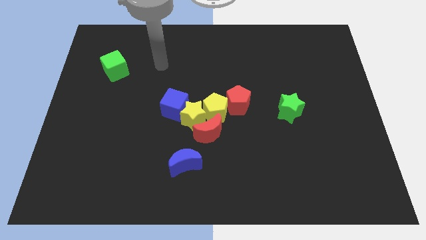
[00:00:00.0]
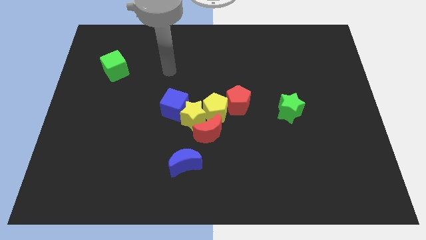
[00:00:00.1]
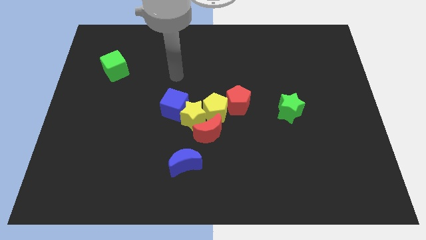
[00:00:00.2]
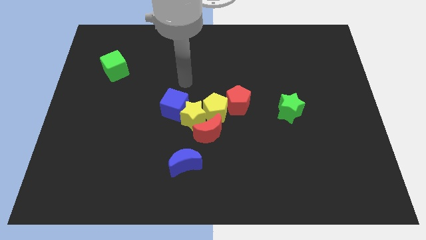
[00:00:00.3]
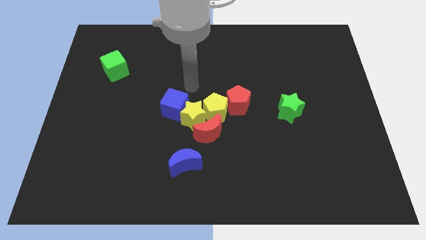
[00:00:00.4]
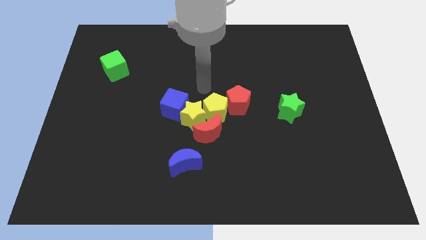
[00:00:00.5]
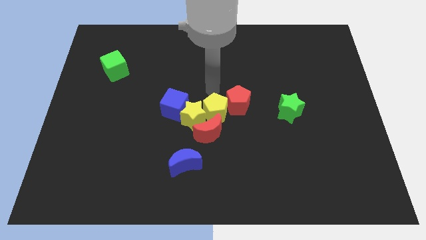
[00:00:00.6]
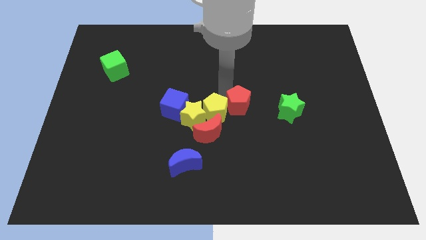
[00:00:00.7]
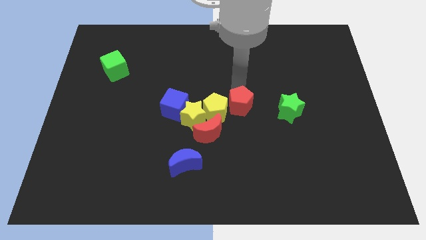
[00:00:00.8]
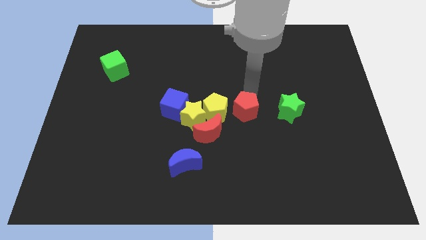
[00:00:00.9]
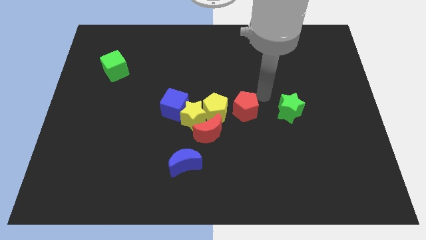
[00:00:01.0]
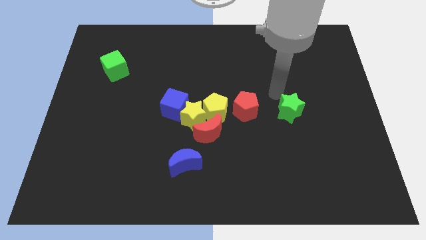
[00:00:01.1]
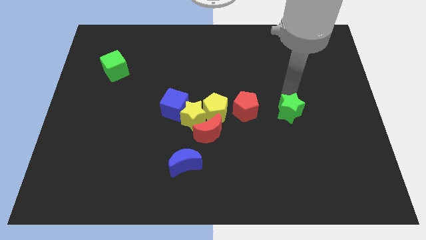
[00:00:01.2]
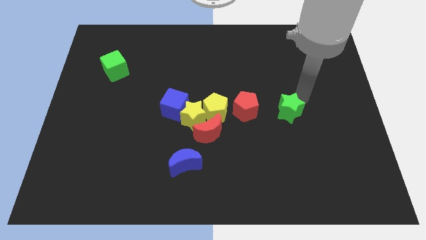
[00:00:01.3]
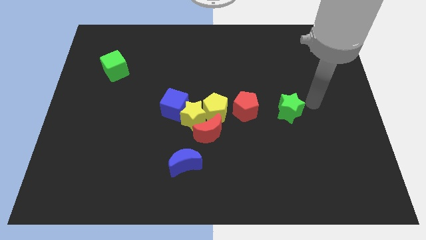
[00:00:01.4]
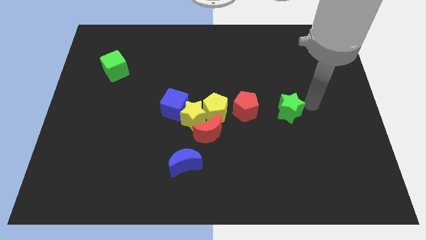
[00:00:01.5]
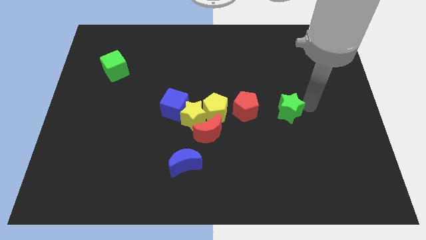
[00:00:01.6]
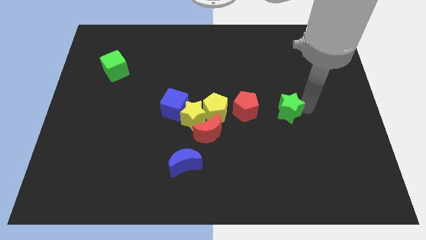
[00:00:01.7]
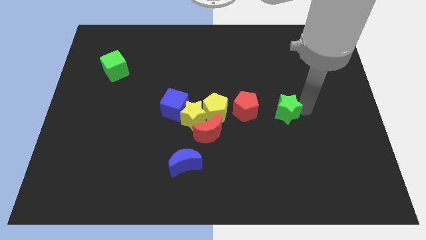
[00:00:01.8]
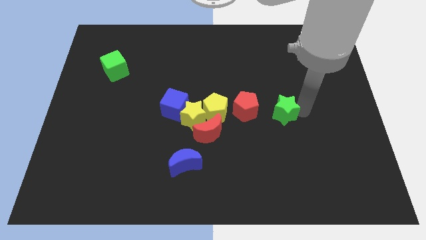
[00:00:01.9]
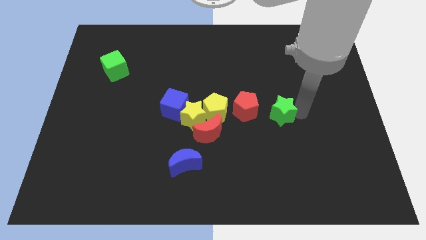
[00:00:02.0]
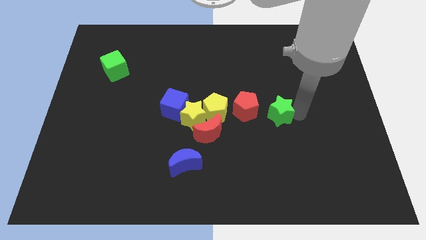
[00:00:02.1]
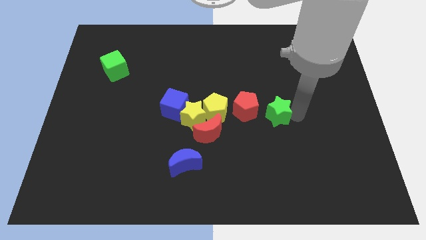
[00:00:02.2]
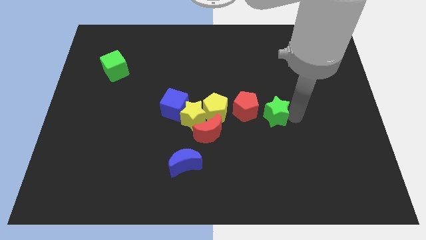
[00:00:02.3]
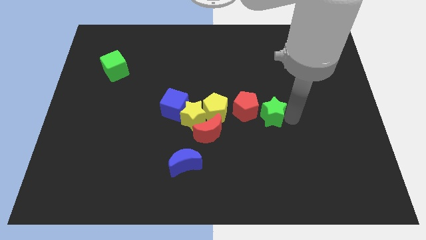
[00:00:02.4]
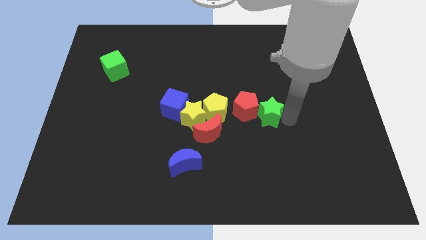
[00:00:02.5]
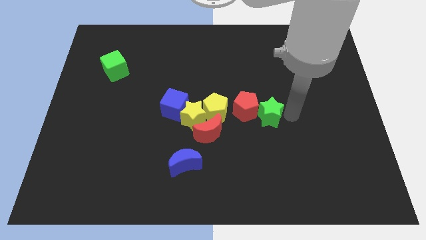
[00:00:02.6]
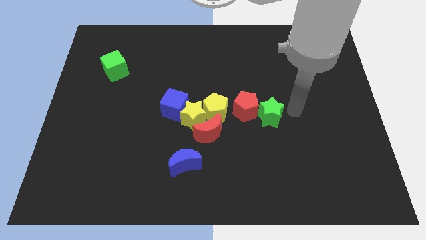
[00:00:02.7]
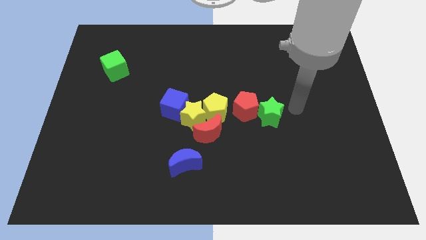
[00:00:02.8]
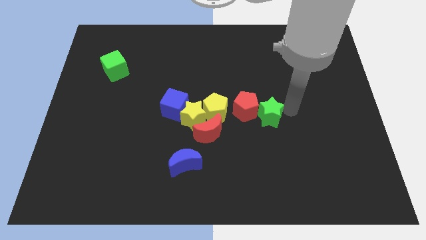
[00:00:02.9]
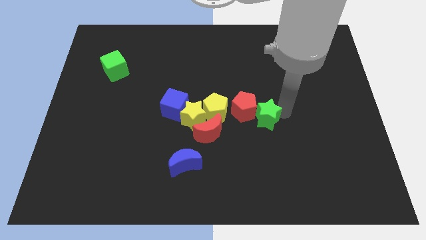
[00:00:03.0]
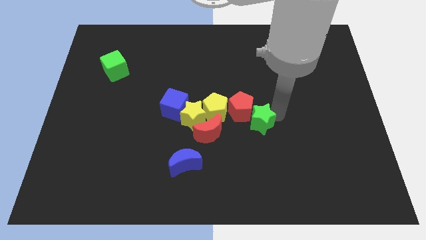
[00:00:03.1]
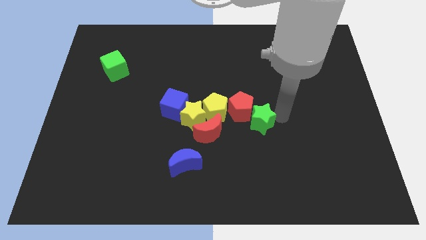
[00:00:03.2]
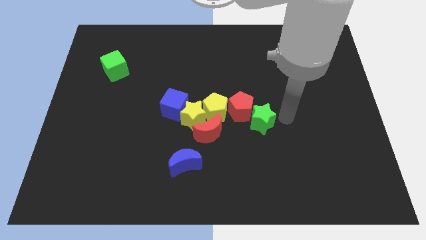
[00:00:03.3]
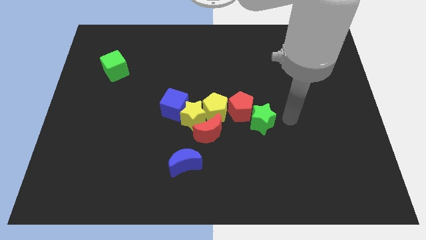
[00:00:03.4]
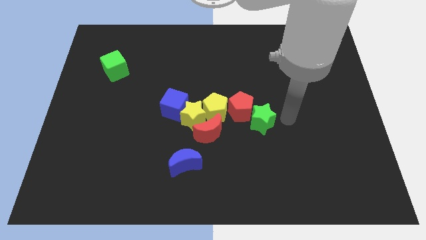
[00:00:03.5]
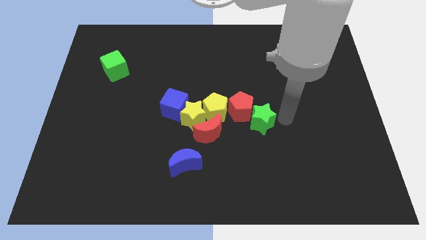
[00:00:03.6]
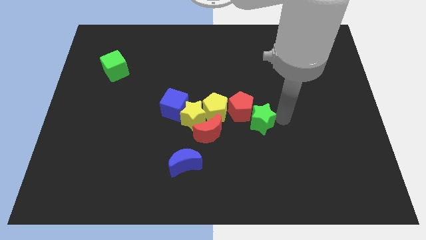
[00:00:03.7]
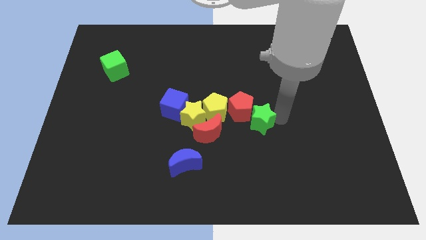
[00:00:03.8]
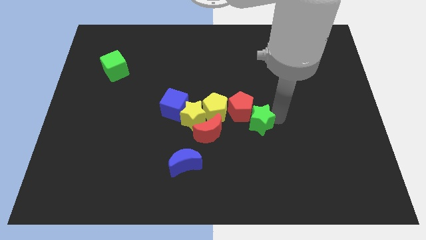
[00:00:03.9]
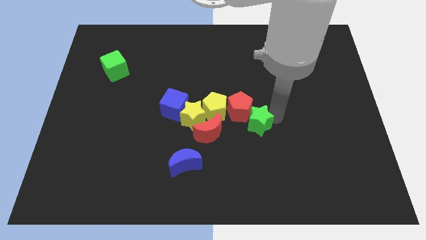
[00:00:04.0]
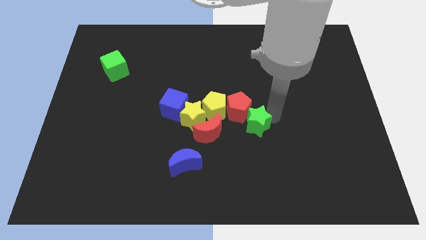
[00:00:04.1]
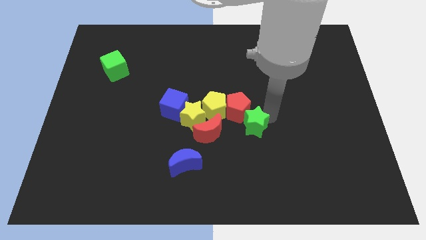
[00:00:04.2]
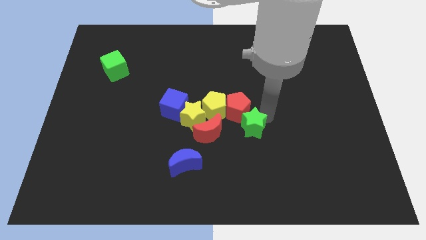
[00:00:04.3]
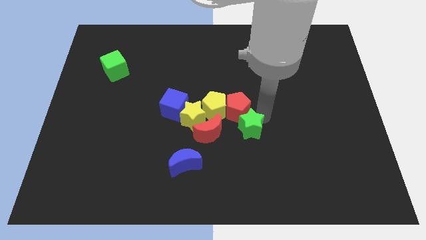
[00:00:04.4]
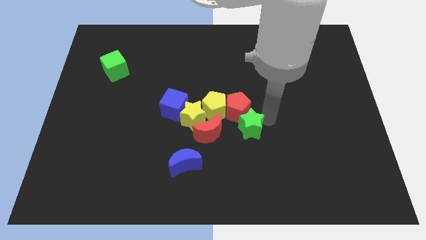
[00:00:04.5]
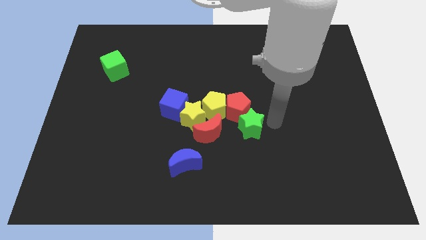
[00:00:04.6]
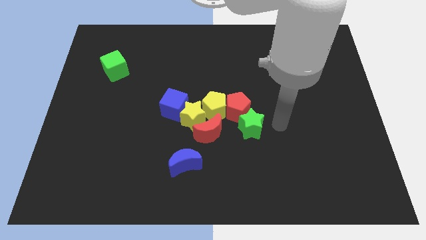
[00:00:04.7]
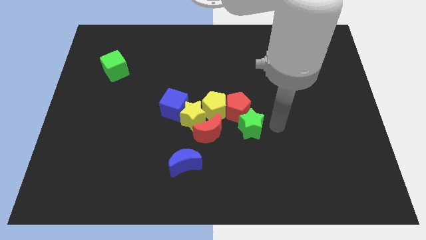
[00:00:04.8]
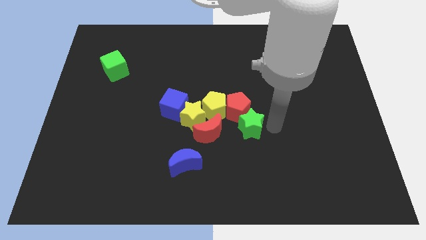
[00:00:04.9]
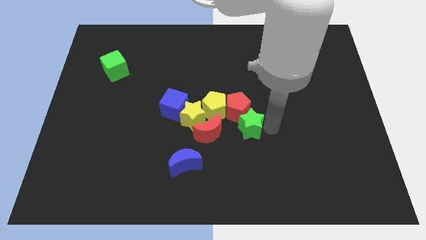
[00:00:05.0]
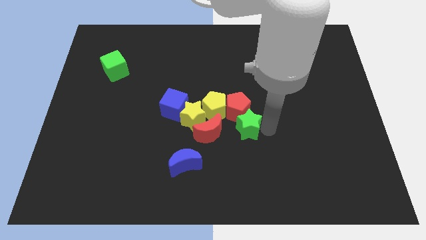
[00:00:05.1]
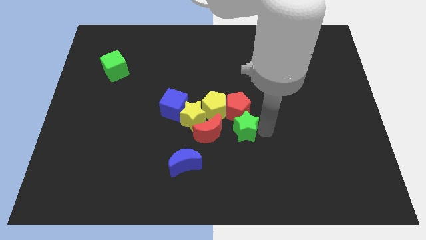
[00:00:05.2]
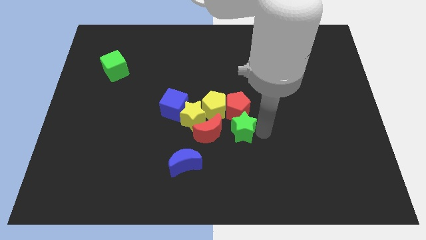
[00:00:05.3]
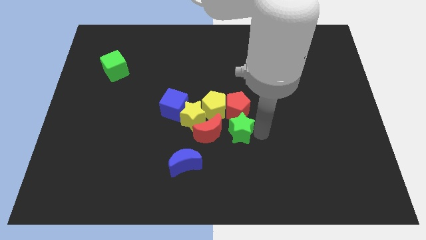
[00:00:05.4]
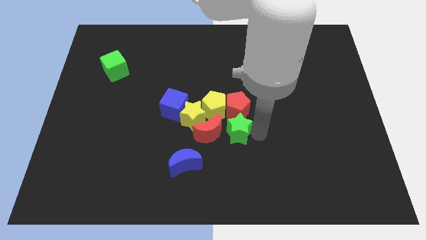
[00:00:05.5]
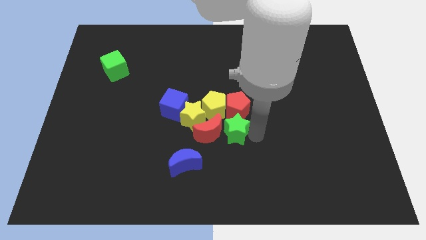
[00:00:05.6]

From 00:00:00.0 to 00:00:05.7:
push the green star towards the red moon

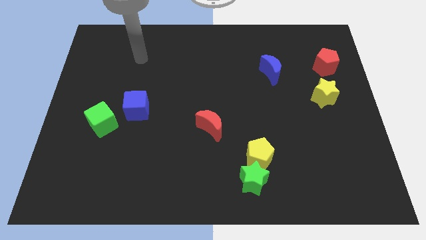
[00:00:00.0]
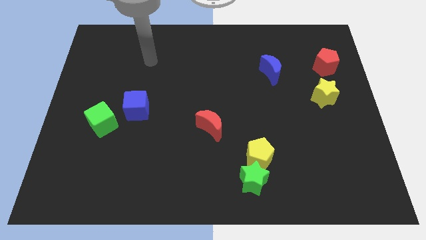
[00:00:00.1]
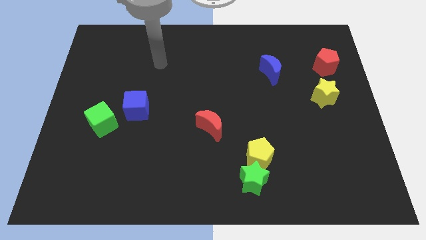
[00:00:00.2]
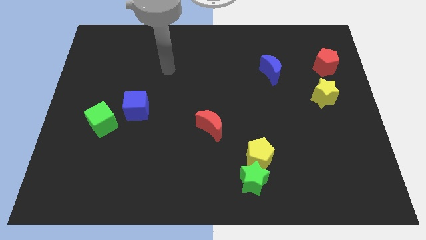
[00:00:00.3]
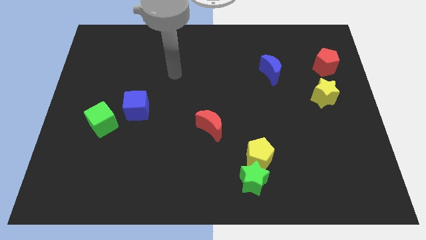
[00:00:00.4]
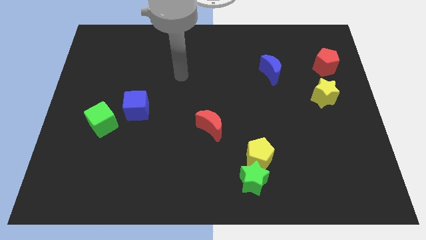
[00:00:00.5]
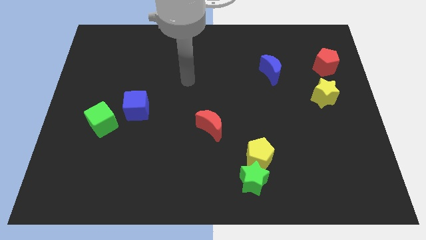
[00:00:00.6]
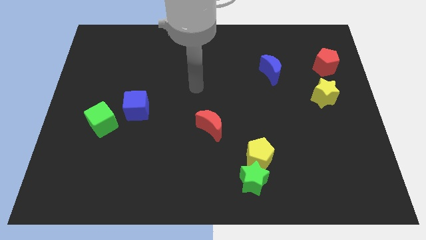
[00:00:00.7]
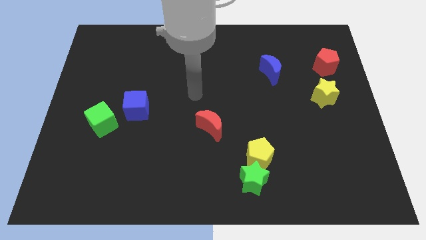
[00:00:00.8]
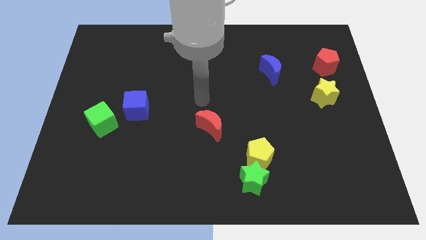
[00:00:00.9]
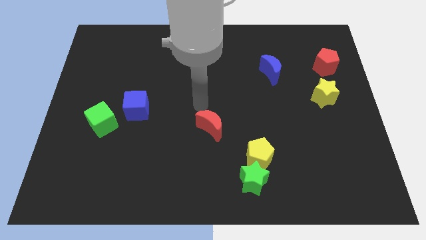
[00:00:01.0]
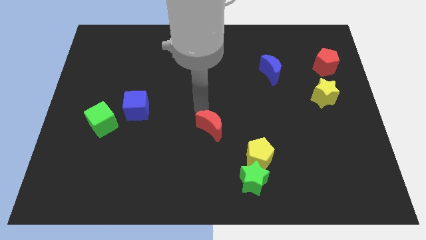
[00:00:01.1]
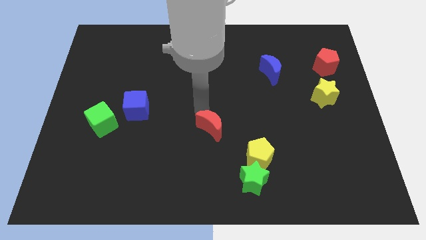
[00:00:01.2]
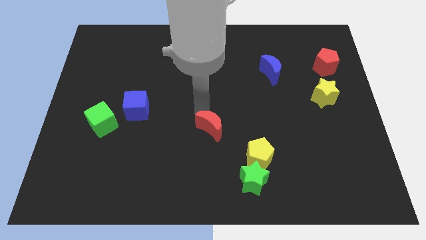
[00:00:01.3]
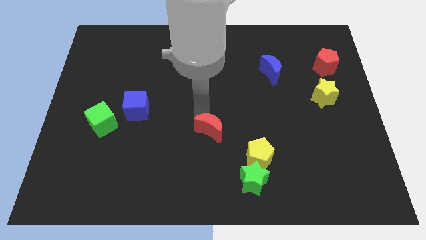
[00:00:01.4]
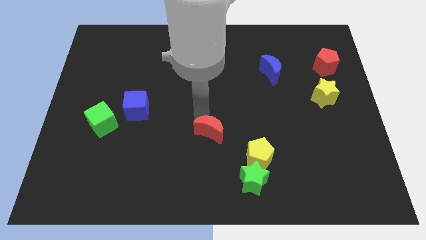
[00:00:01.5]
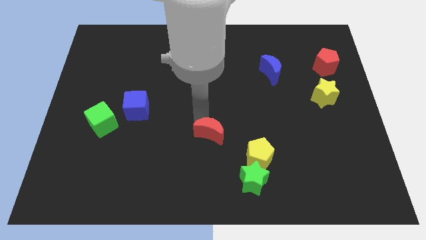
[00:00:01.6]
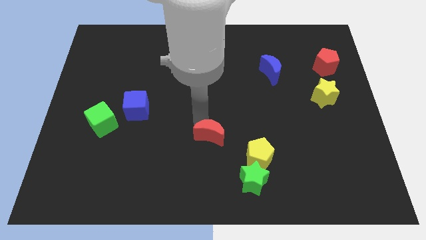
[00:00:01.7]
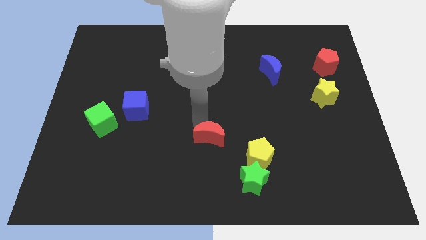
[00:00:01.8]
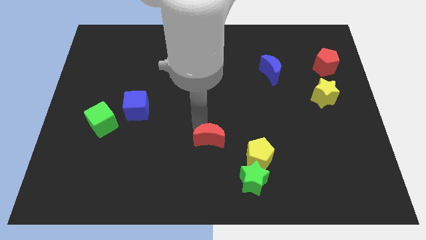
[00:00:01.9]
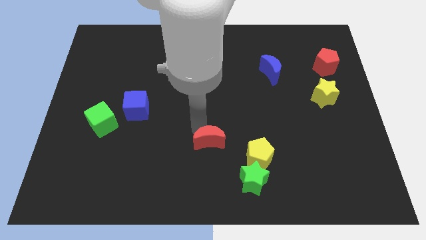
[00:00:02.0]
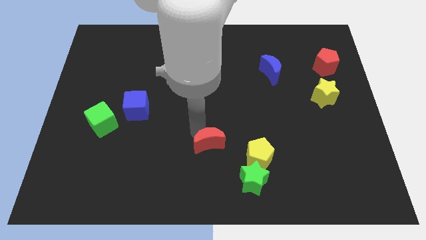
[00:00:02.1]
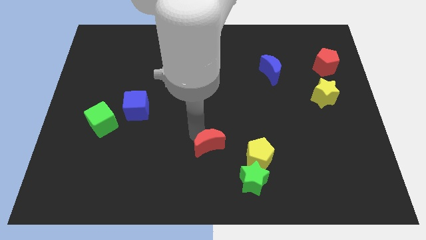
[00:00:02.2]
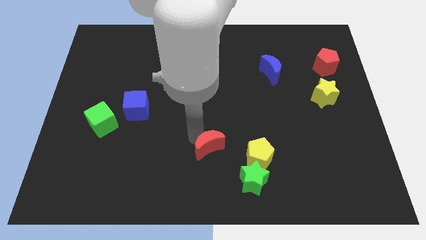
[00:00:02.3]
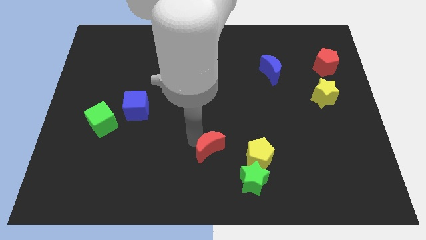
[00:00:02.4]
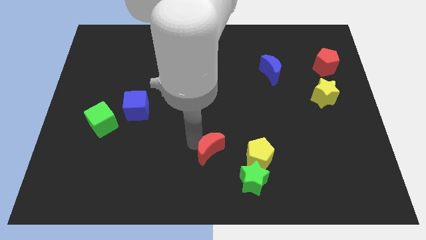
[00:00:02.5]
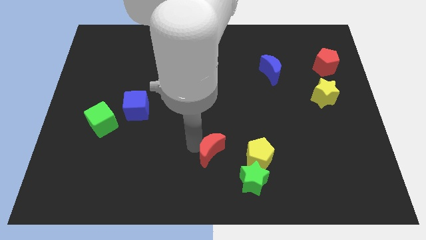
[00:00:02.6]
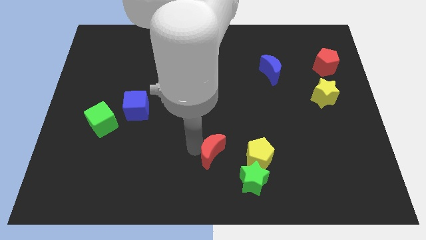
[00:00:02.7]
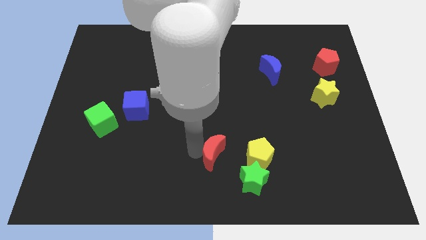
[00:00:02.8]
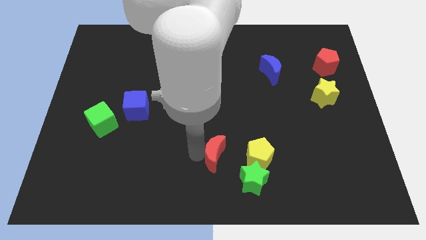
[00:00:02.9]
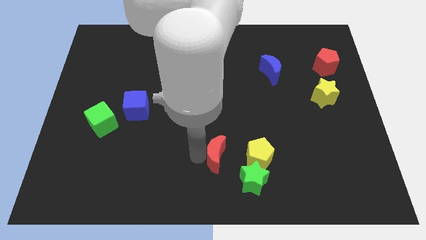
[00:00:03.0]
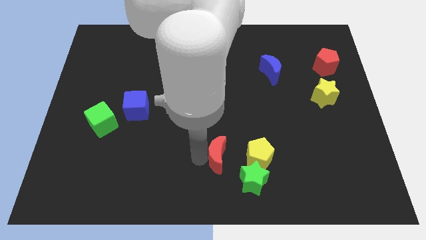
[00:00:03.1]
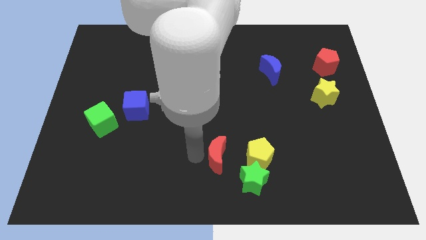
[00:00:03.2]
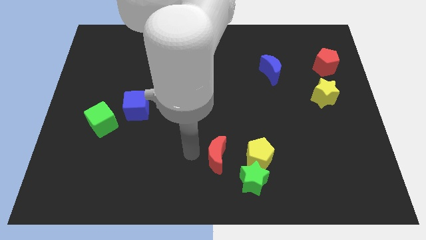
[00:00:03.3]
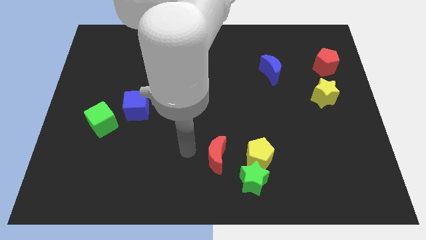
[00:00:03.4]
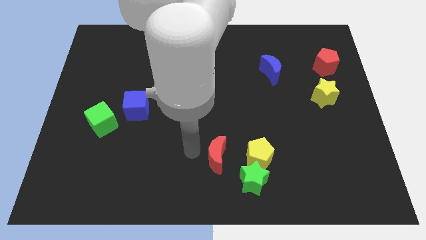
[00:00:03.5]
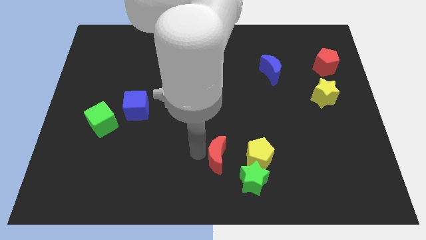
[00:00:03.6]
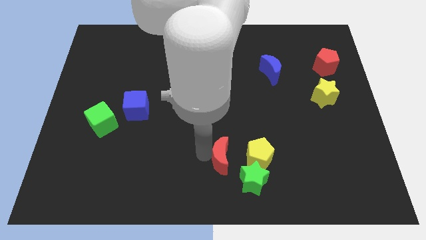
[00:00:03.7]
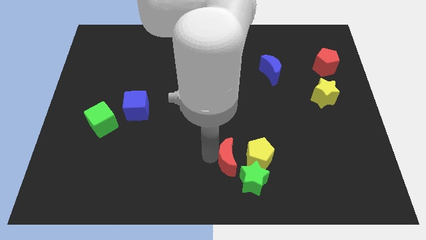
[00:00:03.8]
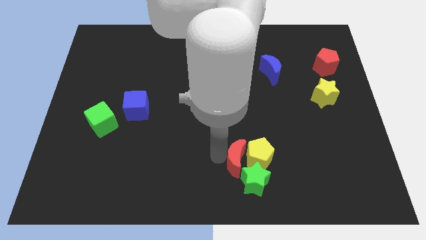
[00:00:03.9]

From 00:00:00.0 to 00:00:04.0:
slide the red moon towards the green star
